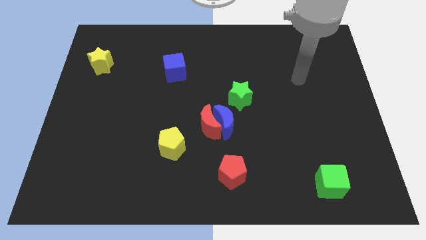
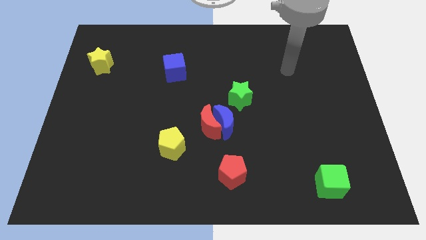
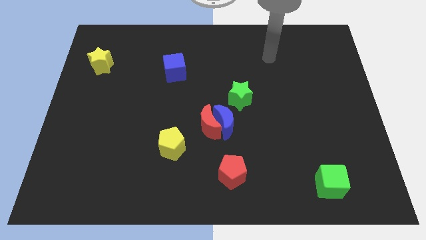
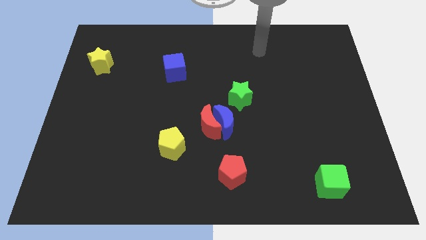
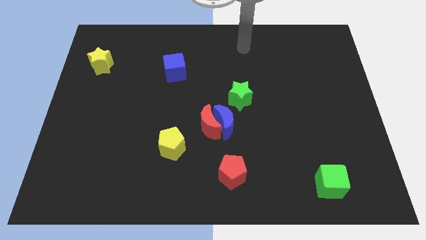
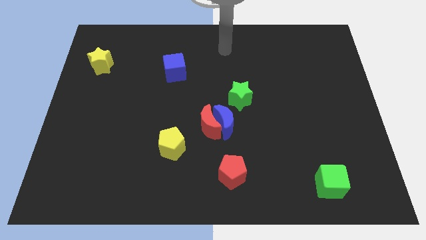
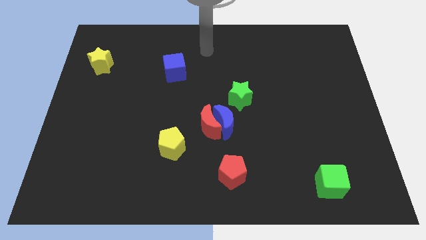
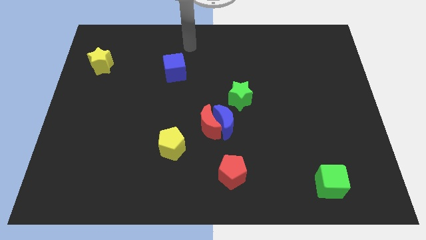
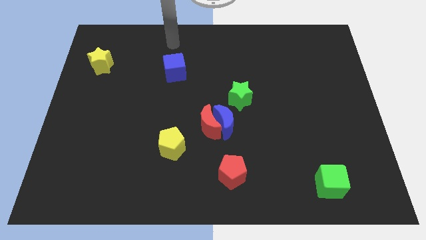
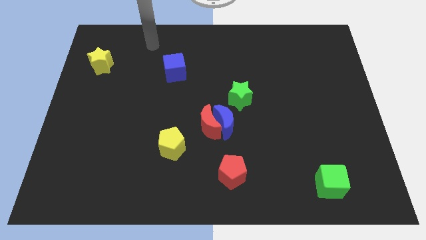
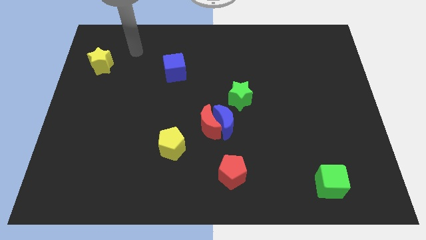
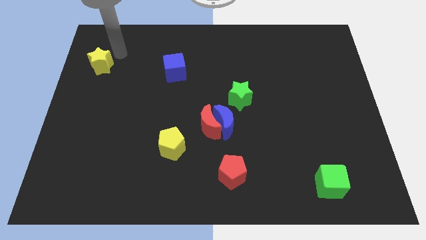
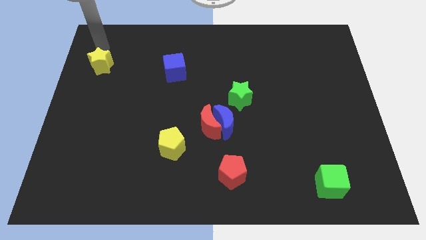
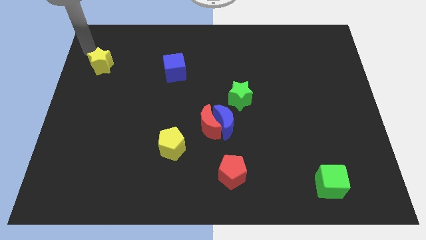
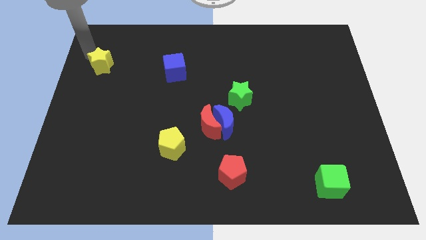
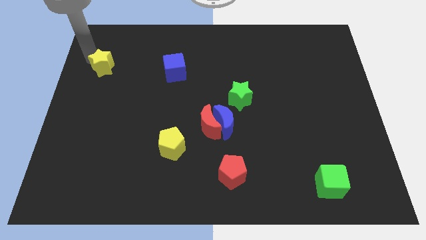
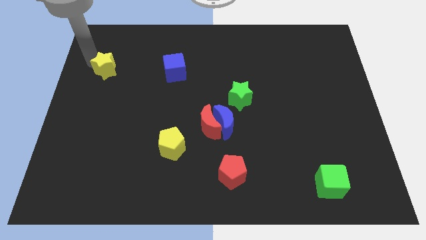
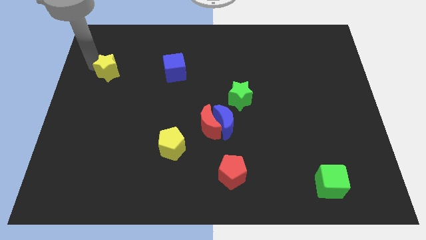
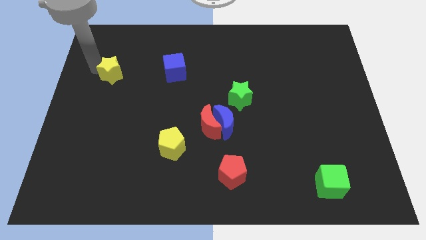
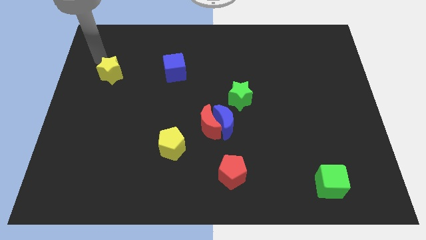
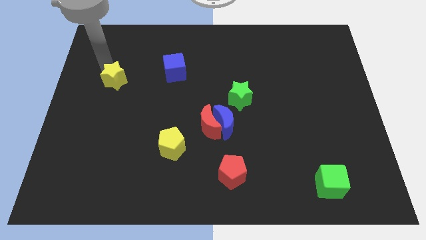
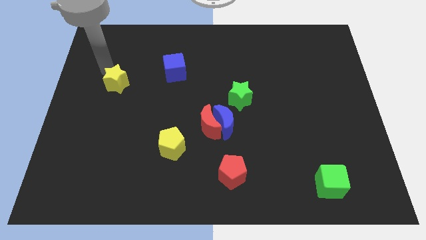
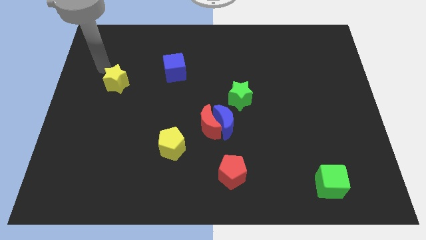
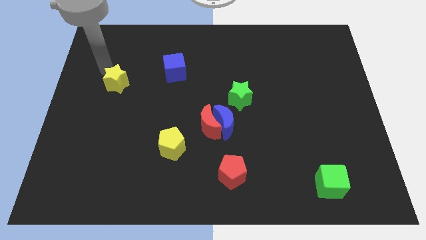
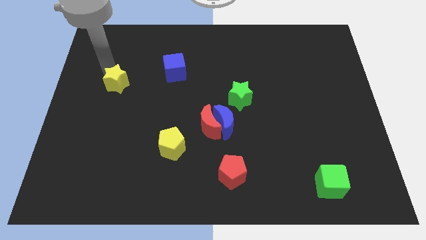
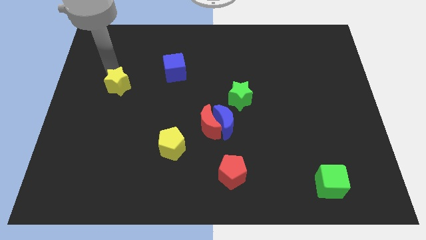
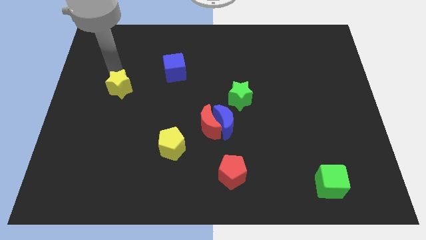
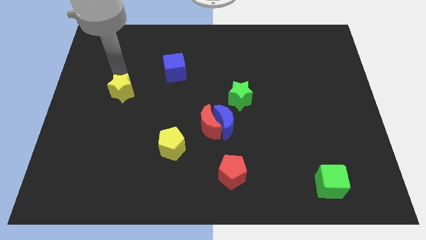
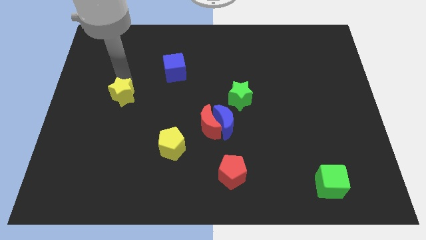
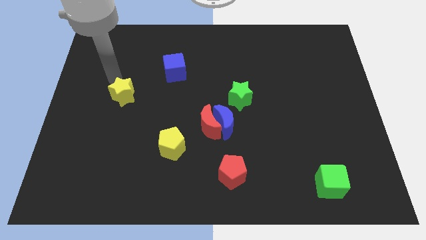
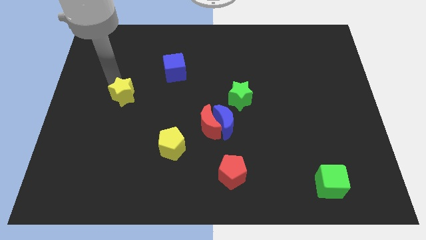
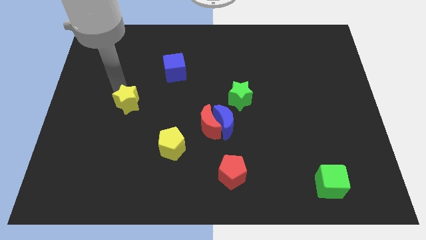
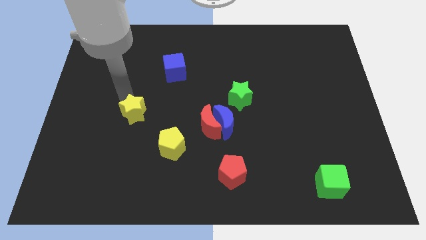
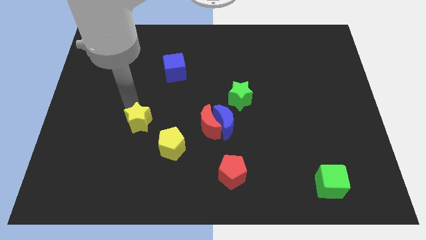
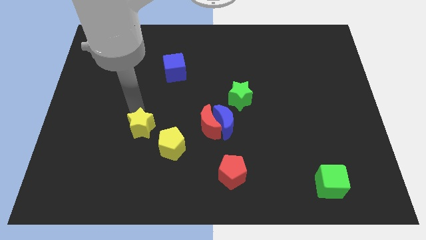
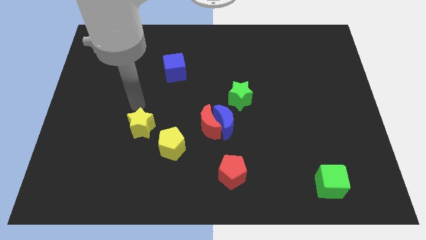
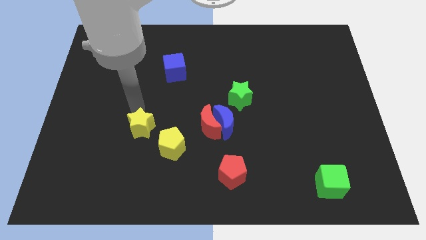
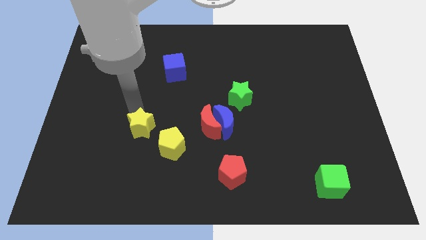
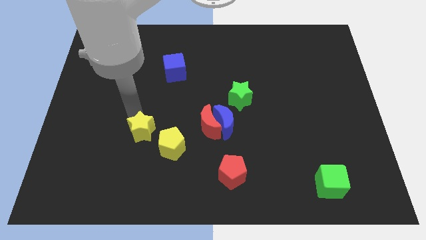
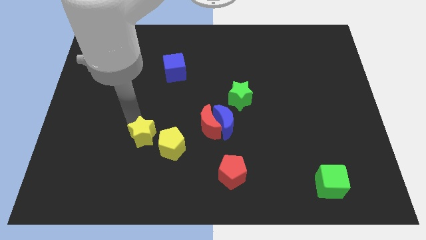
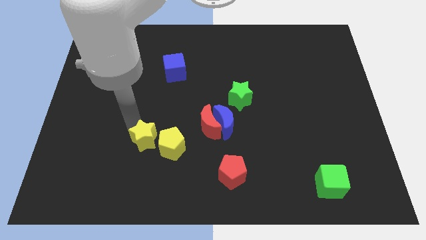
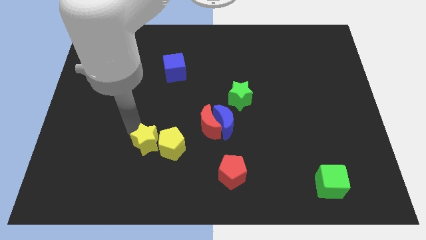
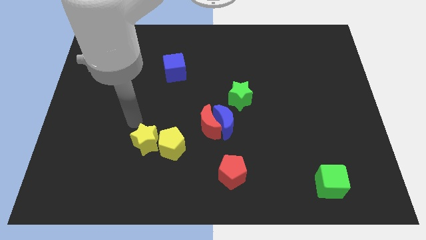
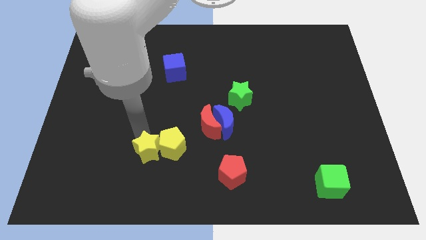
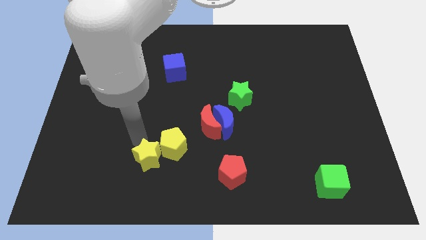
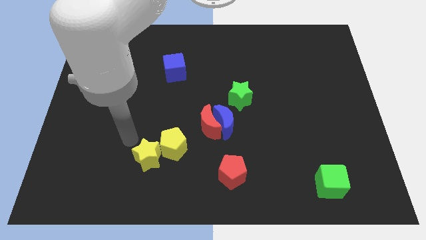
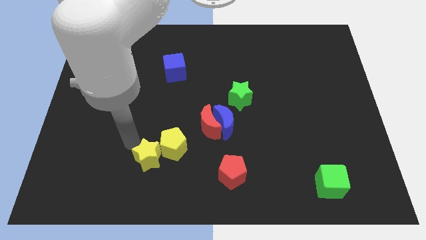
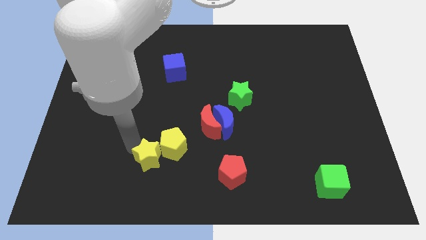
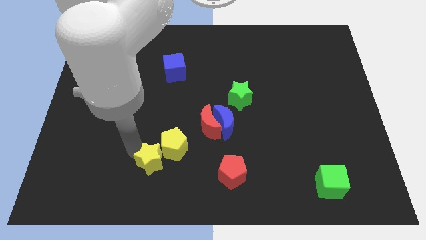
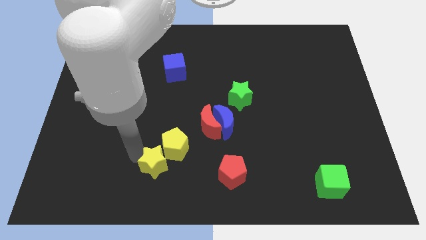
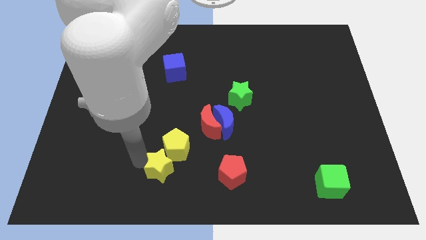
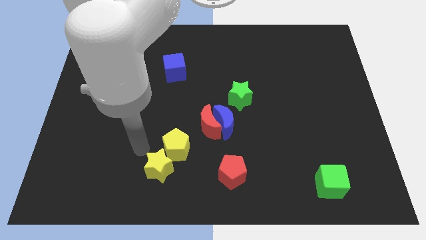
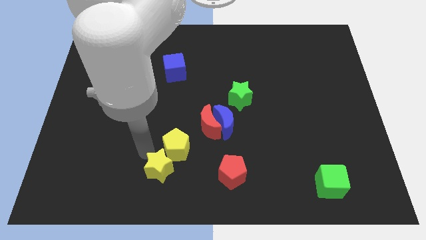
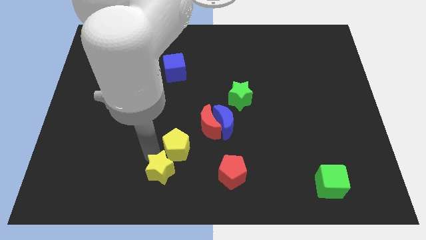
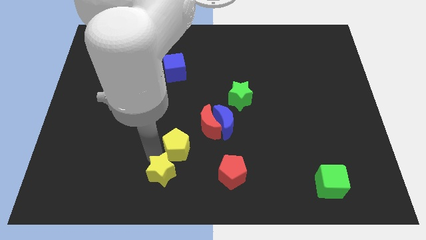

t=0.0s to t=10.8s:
push the yellow star to the bottom
